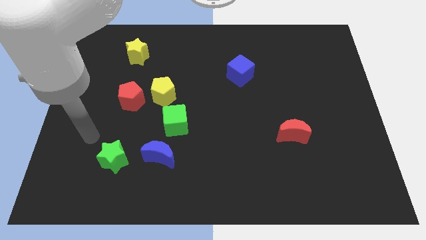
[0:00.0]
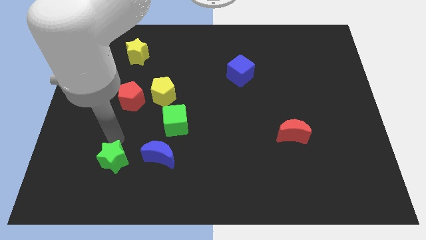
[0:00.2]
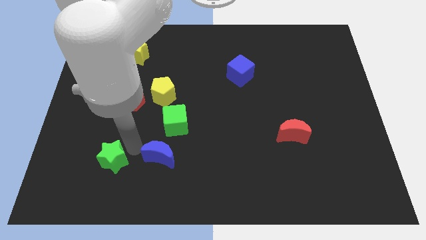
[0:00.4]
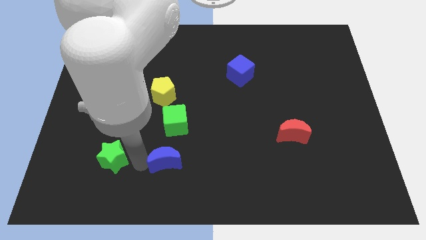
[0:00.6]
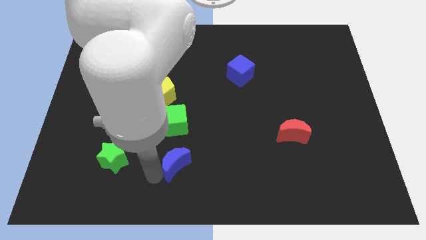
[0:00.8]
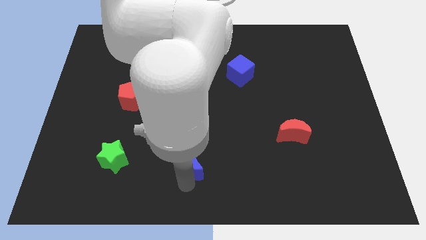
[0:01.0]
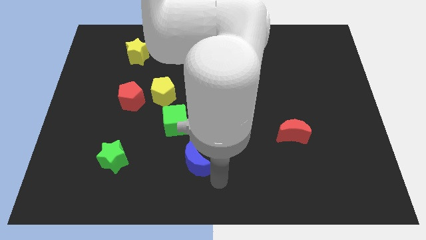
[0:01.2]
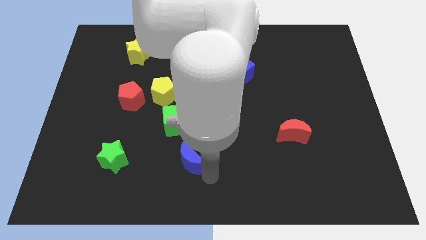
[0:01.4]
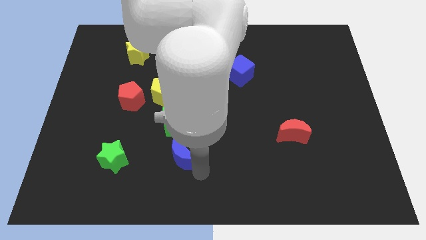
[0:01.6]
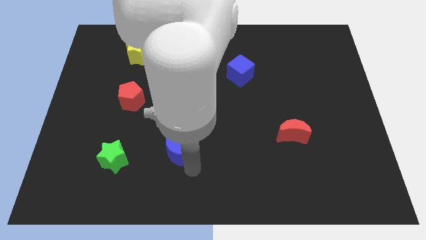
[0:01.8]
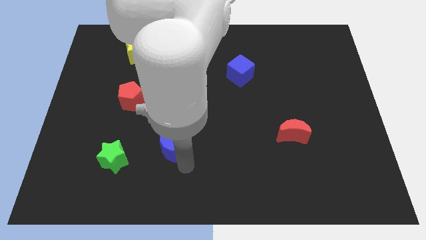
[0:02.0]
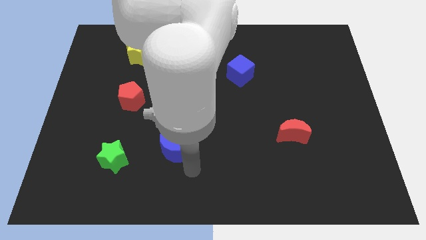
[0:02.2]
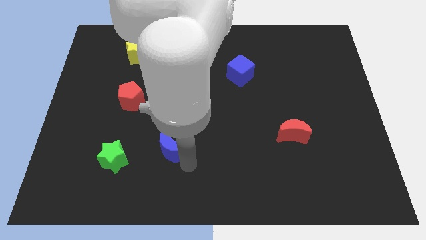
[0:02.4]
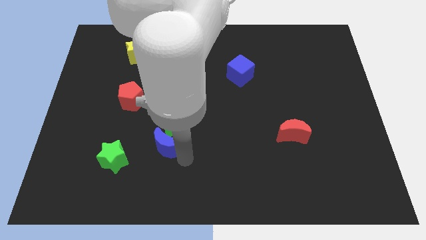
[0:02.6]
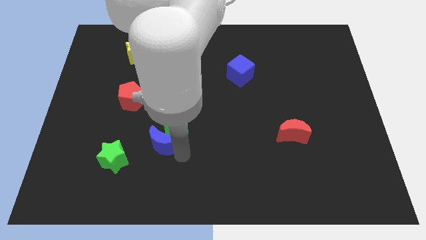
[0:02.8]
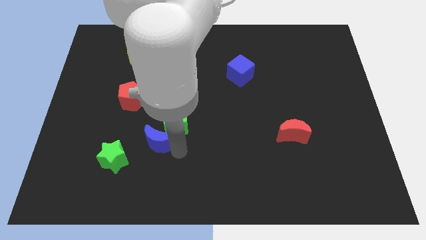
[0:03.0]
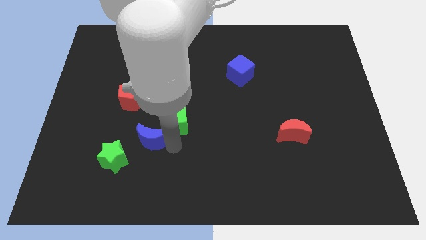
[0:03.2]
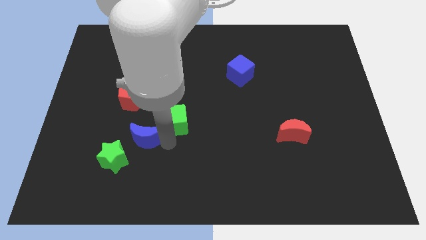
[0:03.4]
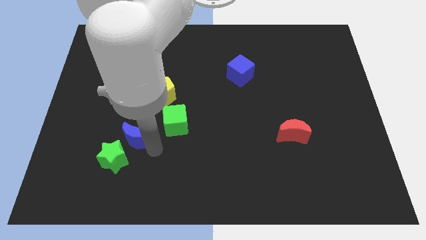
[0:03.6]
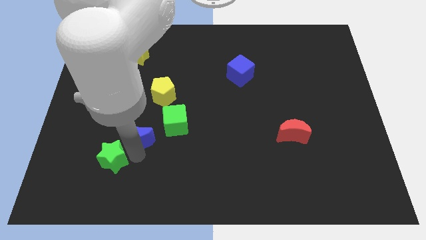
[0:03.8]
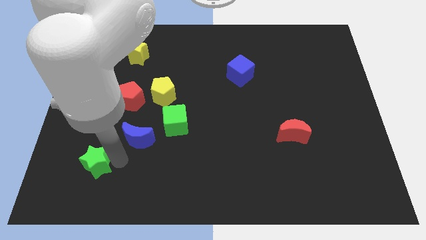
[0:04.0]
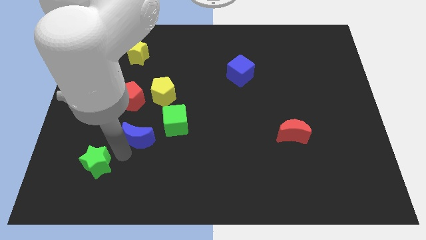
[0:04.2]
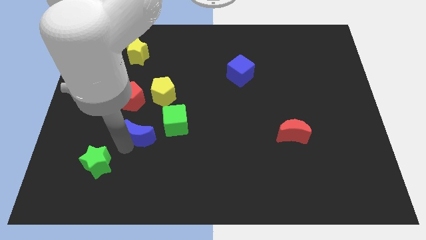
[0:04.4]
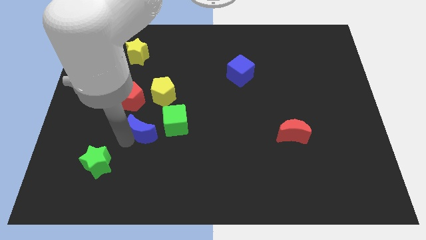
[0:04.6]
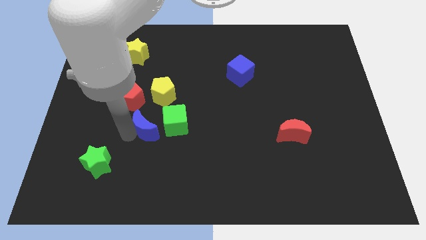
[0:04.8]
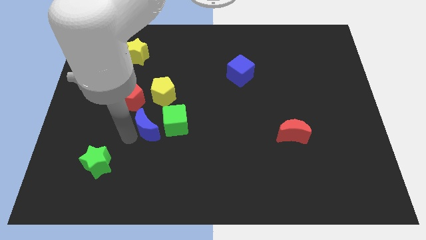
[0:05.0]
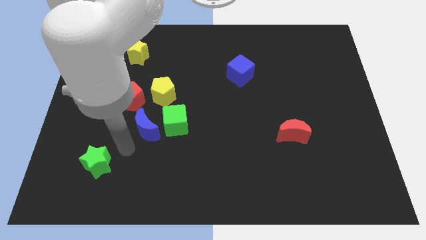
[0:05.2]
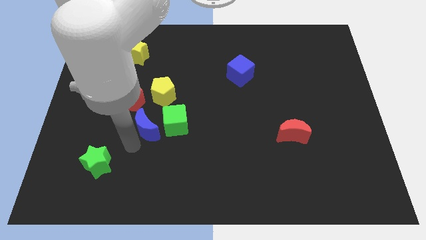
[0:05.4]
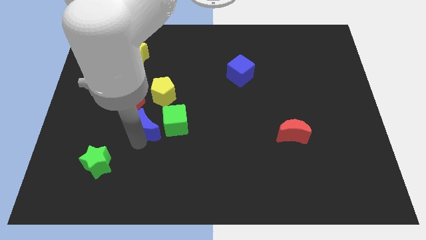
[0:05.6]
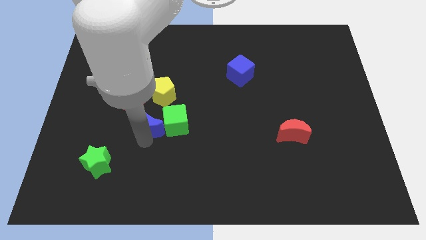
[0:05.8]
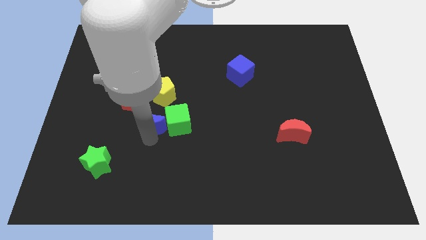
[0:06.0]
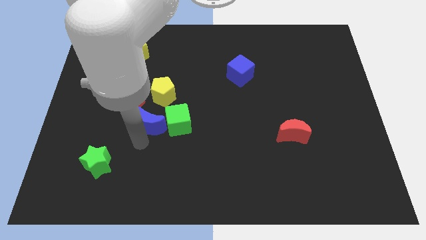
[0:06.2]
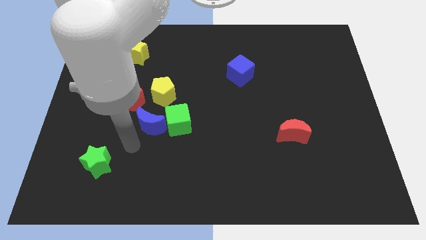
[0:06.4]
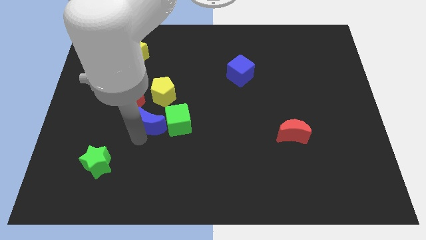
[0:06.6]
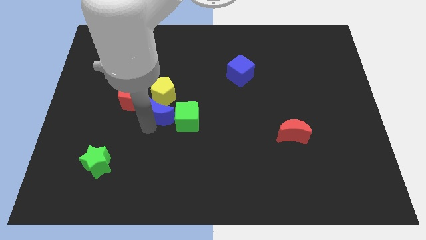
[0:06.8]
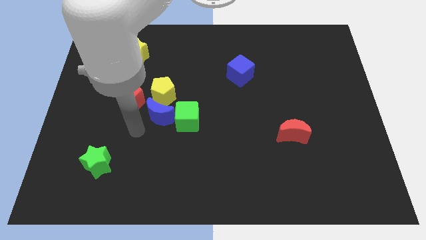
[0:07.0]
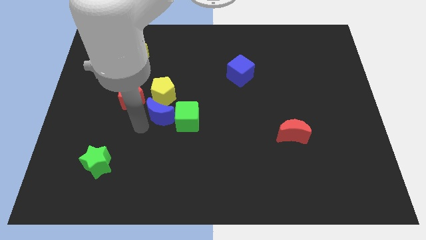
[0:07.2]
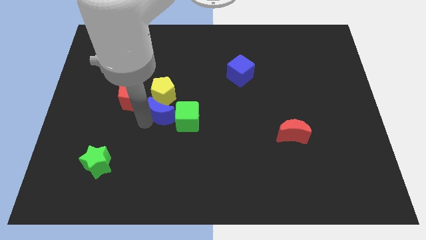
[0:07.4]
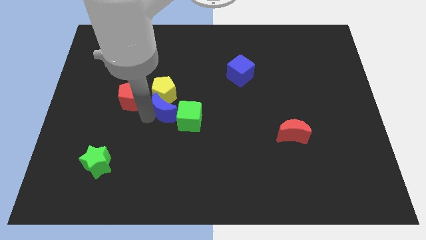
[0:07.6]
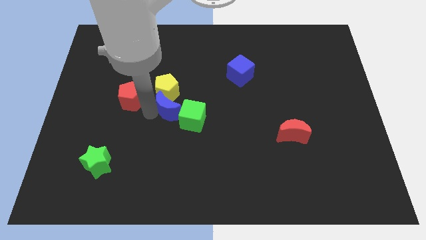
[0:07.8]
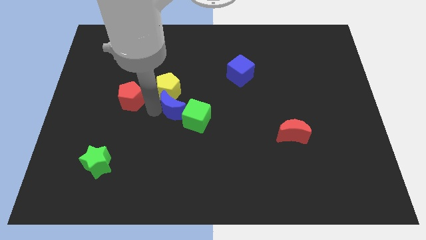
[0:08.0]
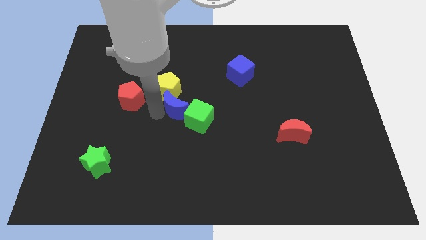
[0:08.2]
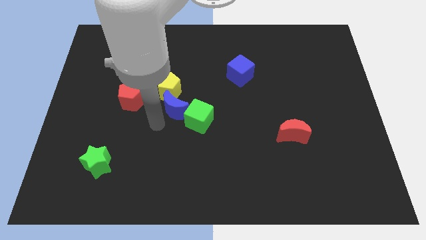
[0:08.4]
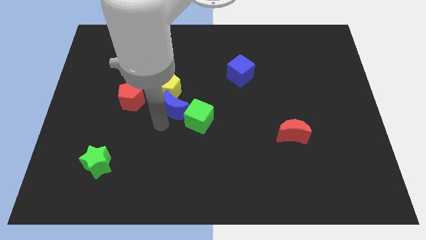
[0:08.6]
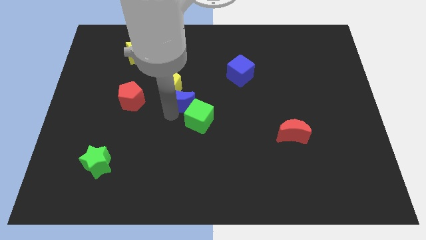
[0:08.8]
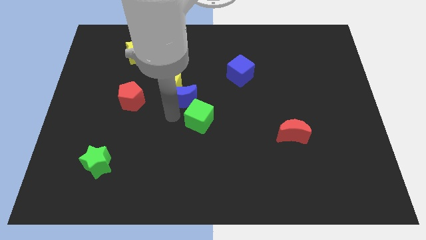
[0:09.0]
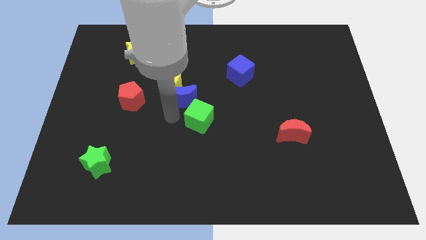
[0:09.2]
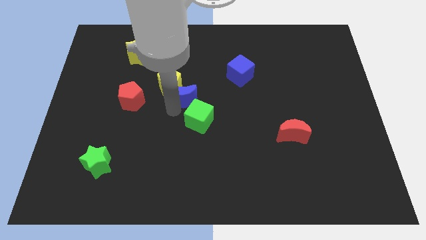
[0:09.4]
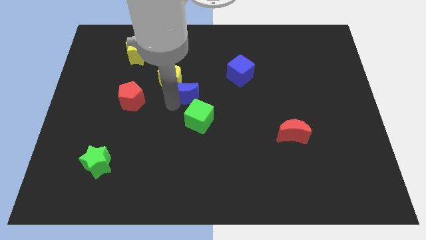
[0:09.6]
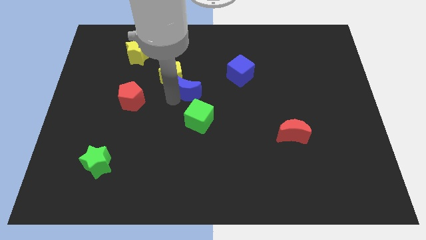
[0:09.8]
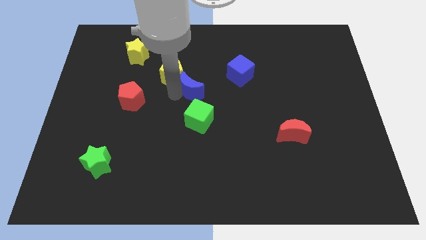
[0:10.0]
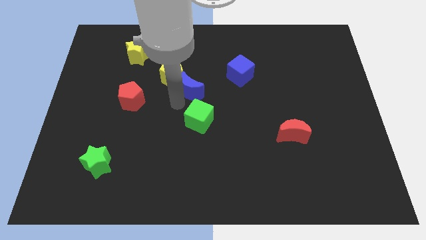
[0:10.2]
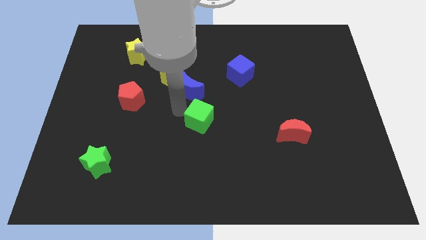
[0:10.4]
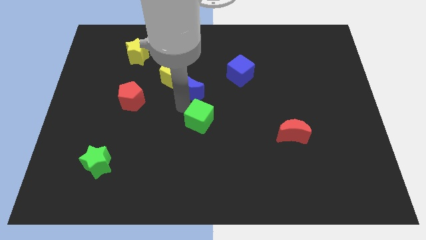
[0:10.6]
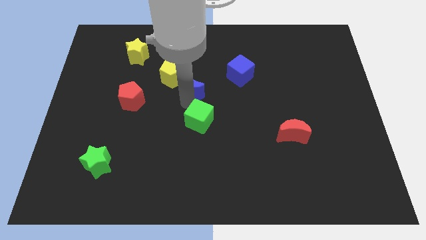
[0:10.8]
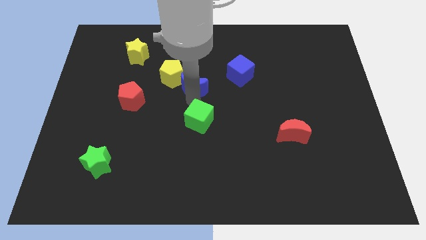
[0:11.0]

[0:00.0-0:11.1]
push the blue moon just left of the blue cube

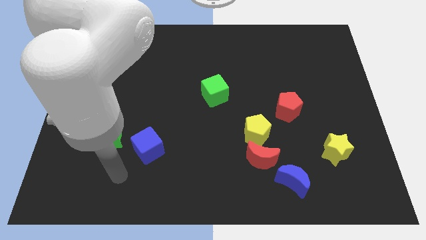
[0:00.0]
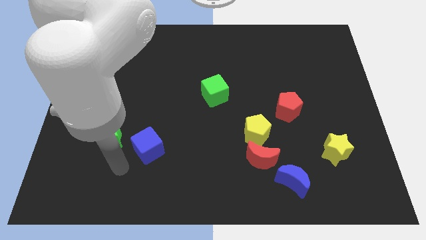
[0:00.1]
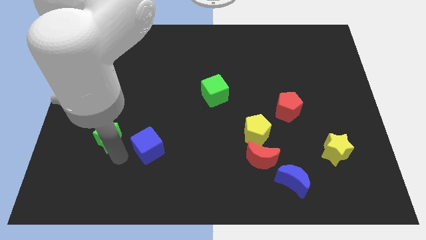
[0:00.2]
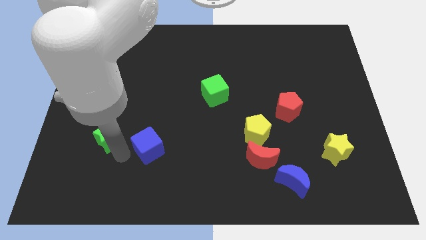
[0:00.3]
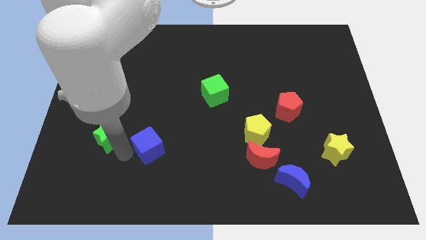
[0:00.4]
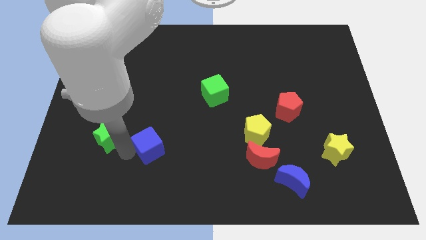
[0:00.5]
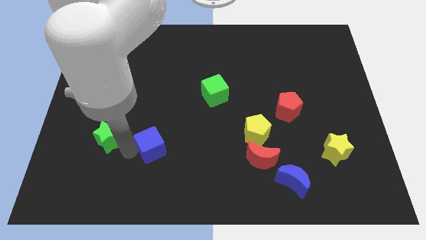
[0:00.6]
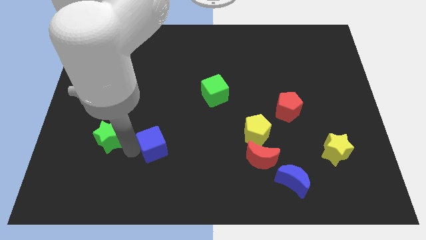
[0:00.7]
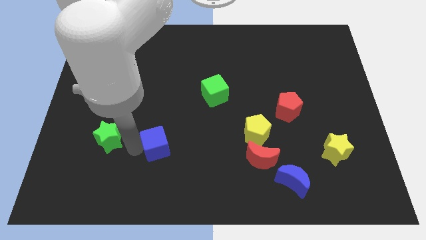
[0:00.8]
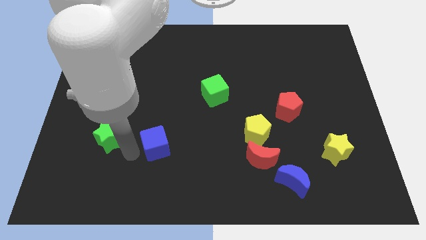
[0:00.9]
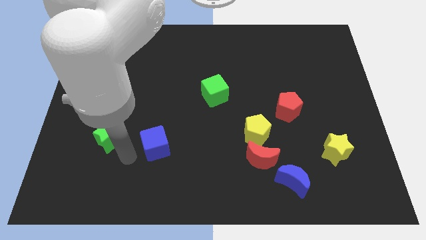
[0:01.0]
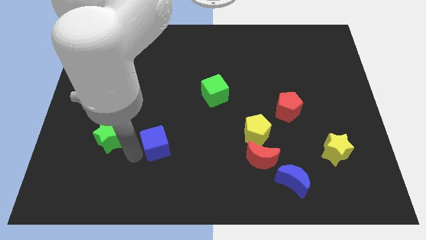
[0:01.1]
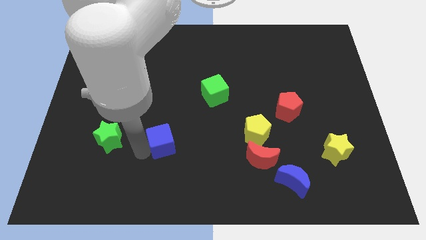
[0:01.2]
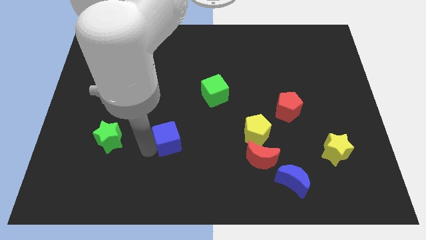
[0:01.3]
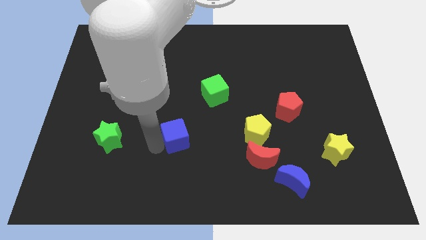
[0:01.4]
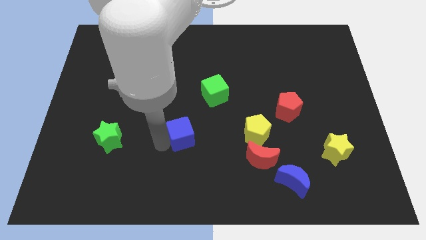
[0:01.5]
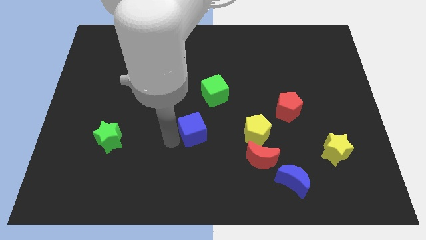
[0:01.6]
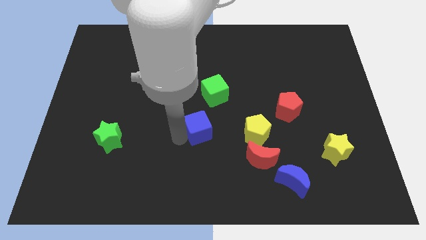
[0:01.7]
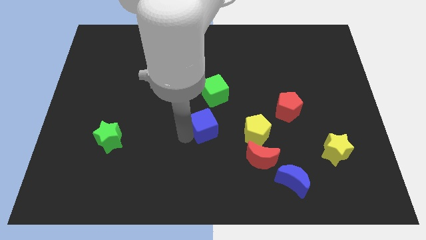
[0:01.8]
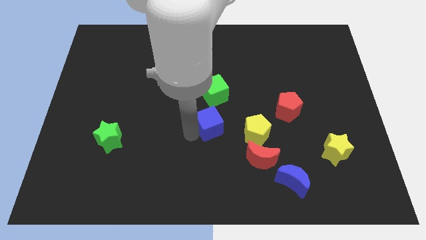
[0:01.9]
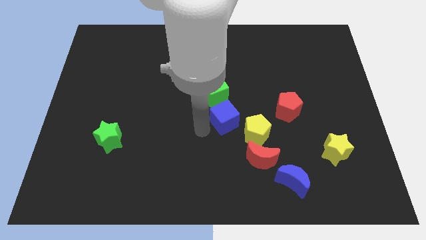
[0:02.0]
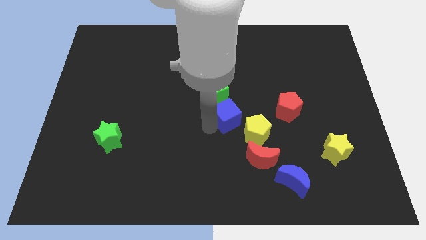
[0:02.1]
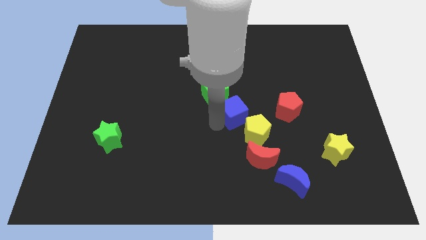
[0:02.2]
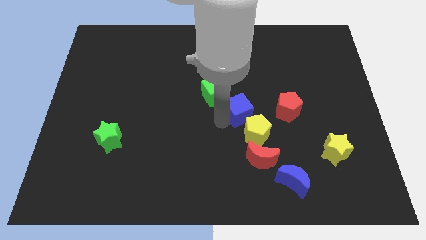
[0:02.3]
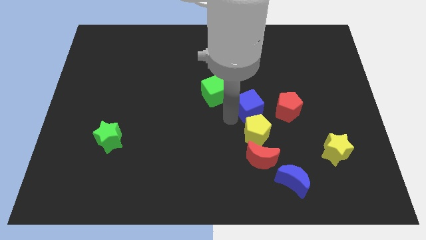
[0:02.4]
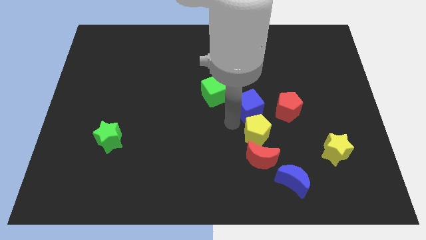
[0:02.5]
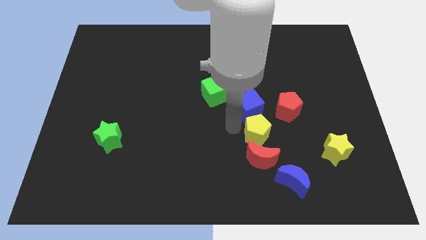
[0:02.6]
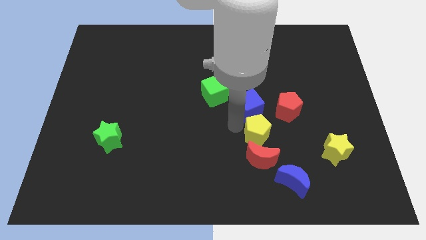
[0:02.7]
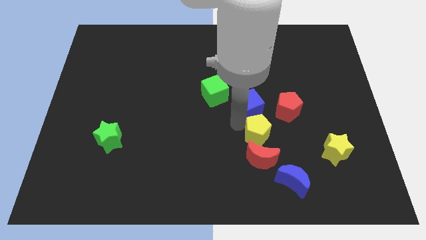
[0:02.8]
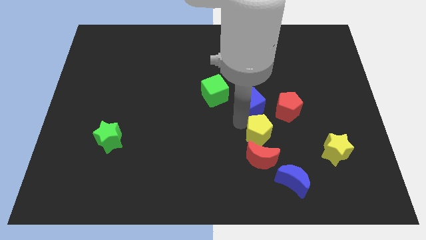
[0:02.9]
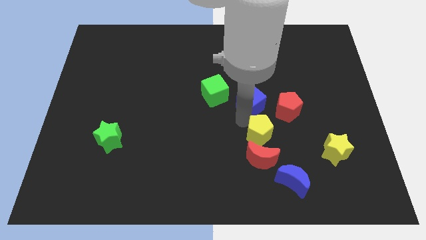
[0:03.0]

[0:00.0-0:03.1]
move the blue cube to the top left of the red pentagon
